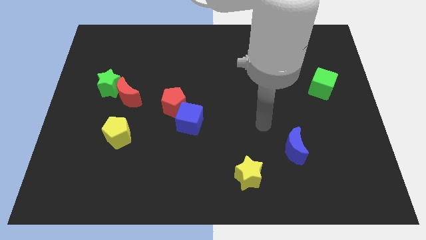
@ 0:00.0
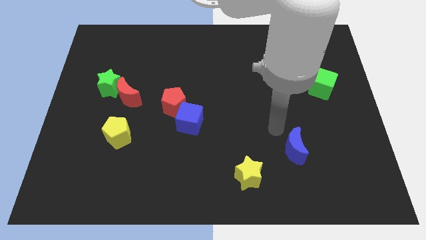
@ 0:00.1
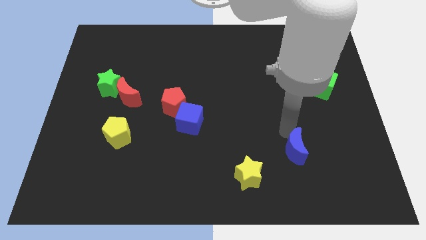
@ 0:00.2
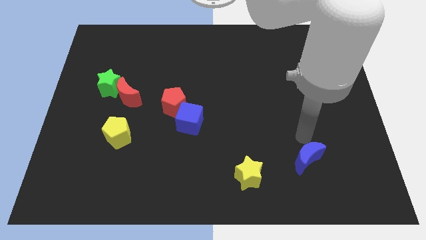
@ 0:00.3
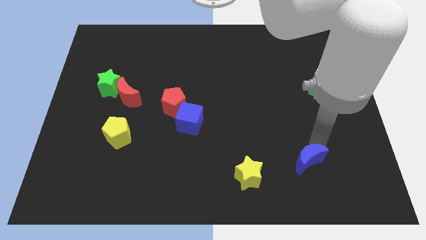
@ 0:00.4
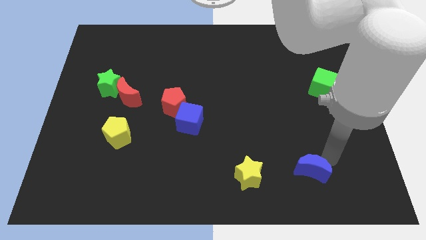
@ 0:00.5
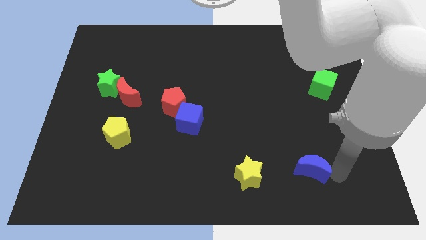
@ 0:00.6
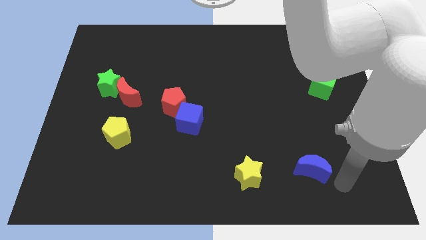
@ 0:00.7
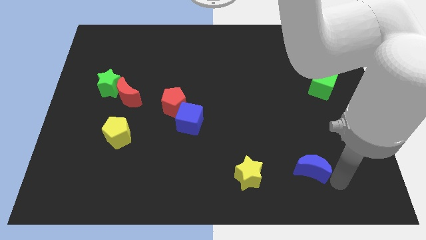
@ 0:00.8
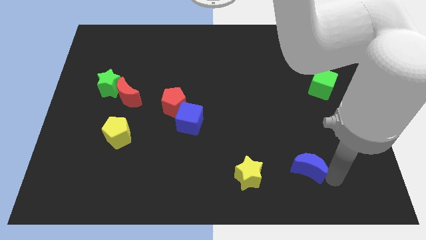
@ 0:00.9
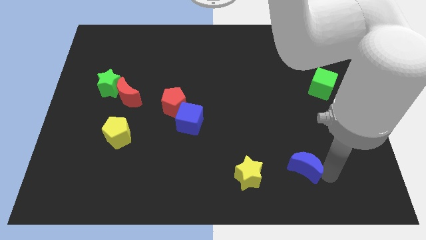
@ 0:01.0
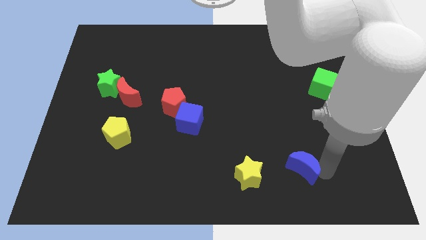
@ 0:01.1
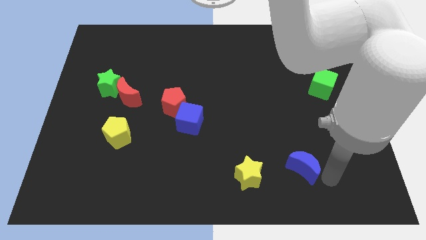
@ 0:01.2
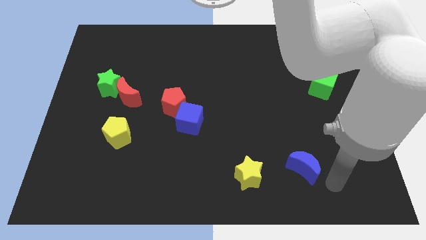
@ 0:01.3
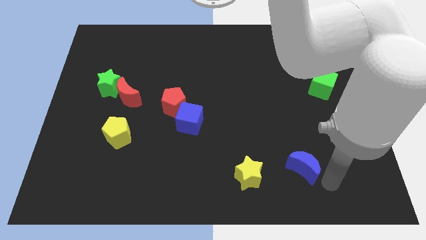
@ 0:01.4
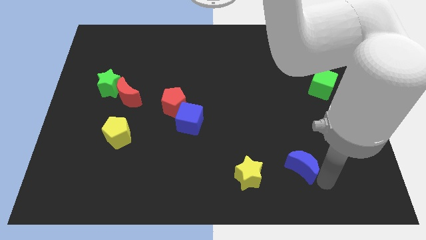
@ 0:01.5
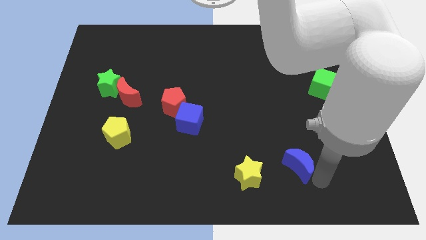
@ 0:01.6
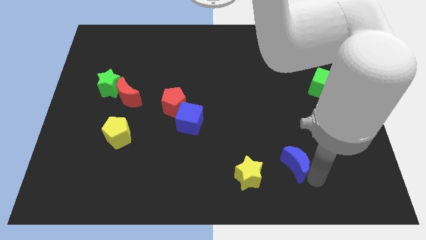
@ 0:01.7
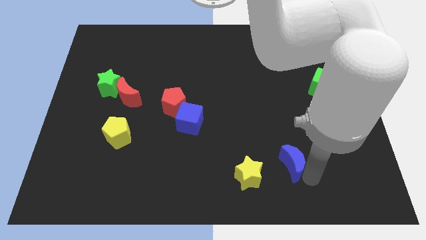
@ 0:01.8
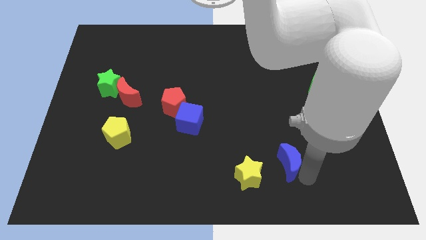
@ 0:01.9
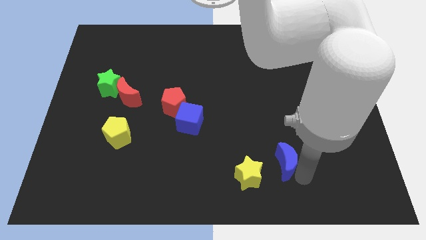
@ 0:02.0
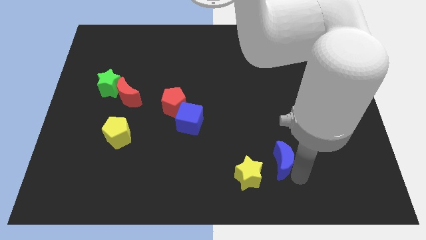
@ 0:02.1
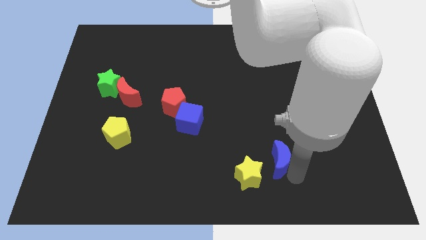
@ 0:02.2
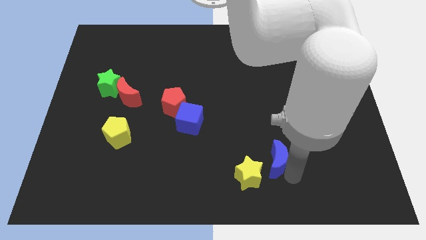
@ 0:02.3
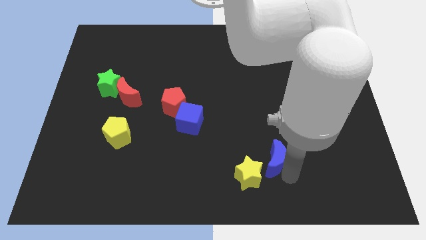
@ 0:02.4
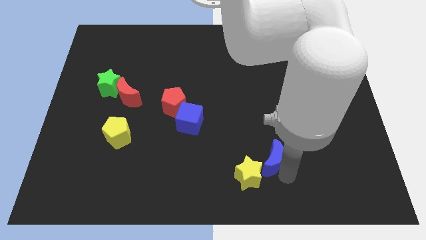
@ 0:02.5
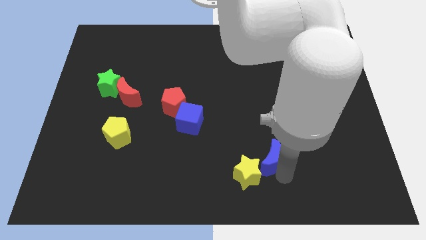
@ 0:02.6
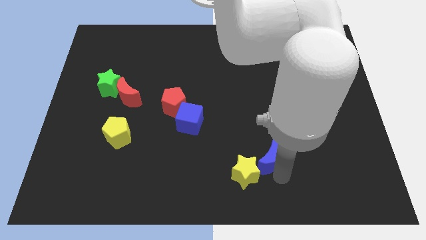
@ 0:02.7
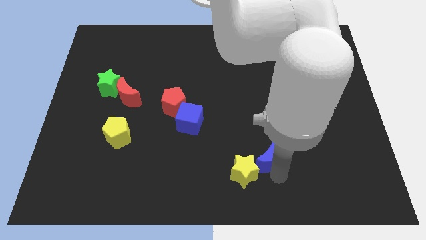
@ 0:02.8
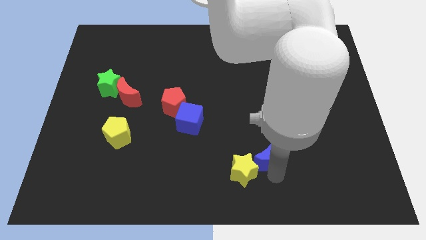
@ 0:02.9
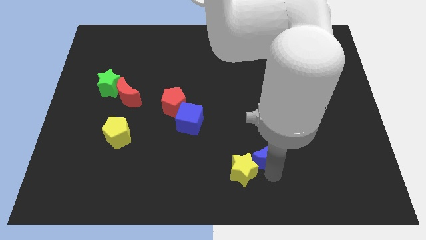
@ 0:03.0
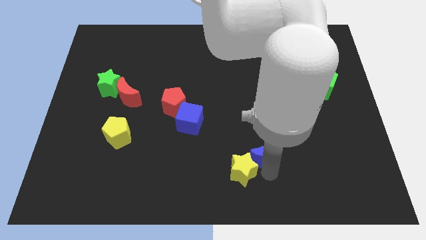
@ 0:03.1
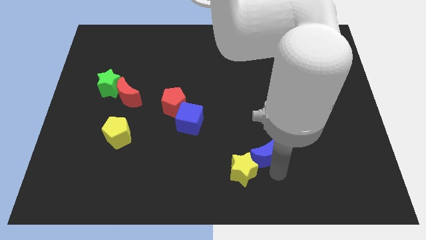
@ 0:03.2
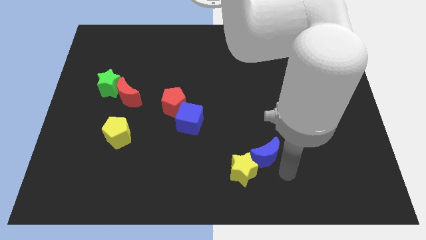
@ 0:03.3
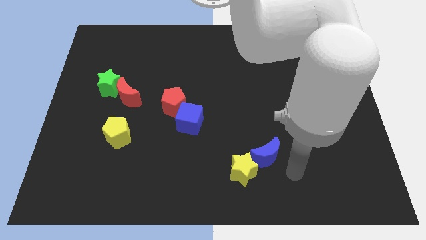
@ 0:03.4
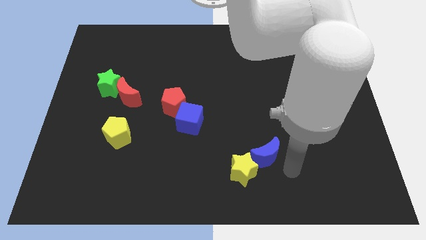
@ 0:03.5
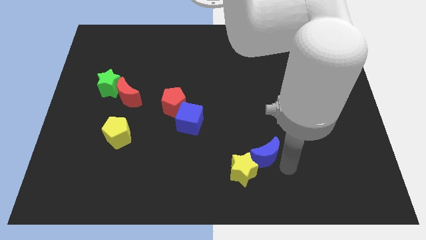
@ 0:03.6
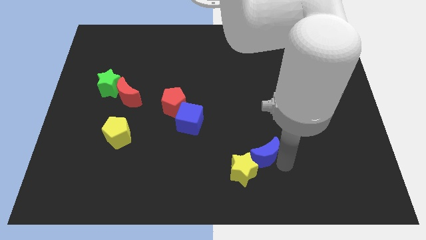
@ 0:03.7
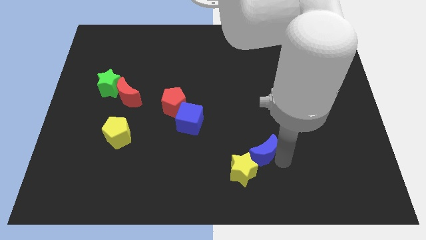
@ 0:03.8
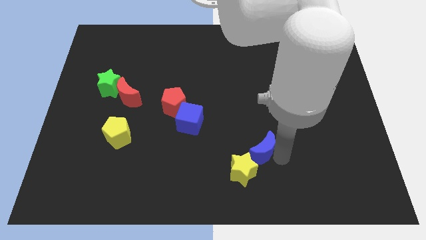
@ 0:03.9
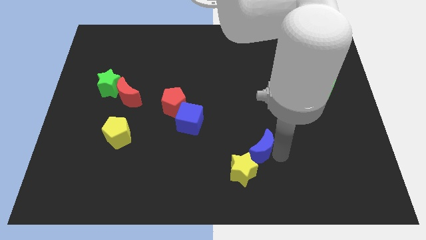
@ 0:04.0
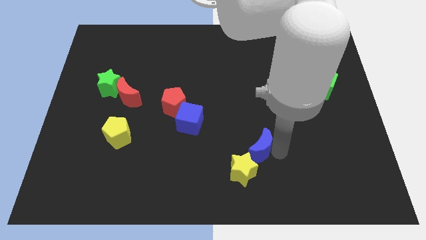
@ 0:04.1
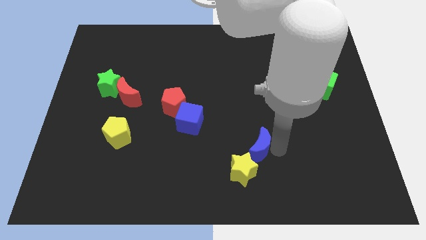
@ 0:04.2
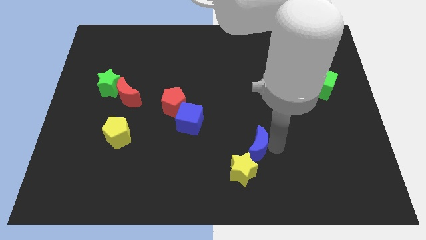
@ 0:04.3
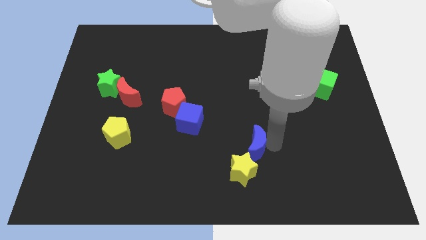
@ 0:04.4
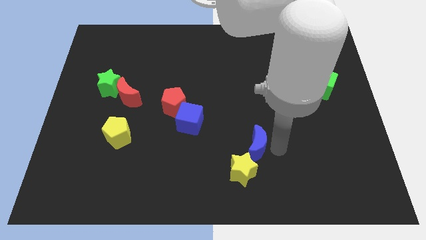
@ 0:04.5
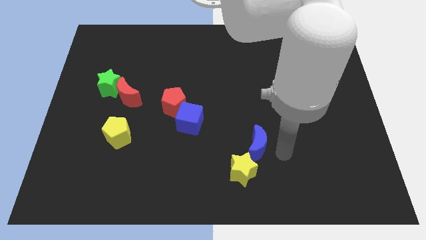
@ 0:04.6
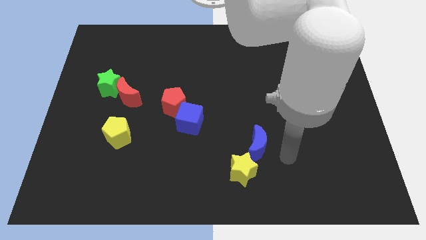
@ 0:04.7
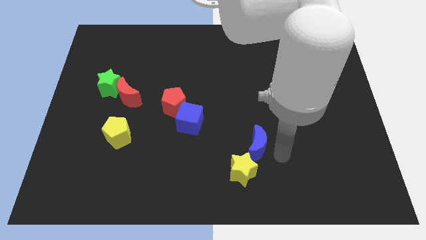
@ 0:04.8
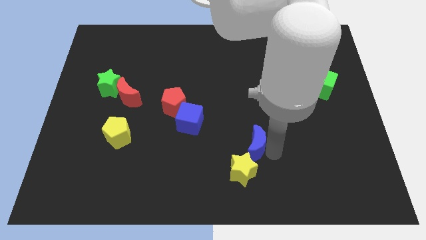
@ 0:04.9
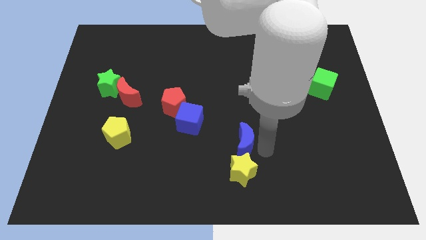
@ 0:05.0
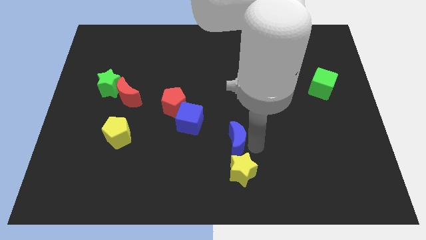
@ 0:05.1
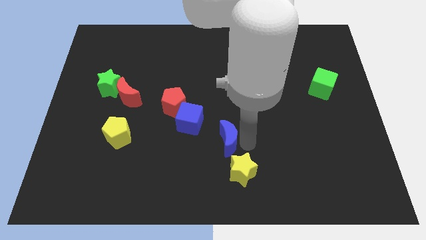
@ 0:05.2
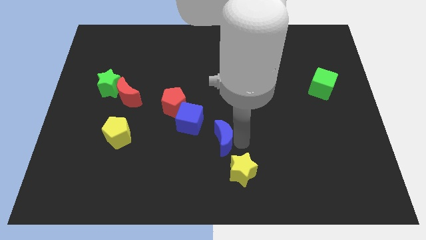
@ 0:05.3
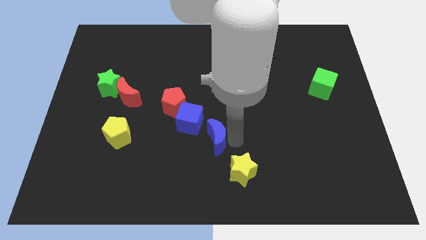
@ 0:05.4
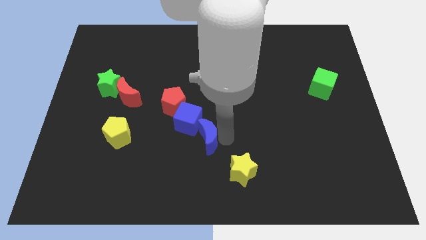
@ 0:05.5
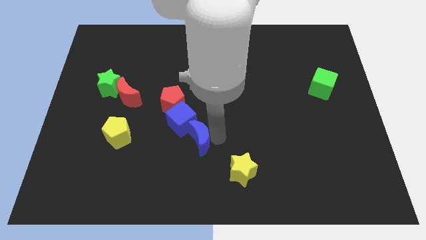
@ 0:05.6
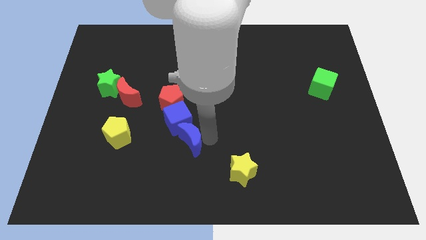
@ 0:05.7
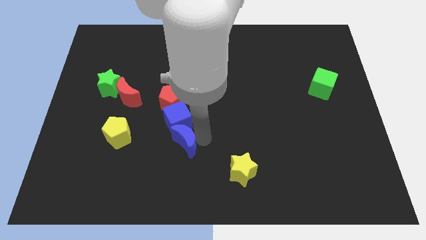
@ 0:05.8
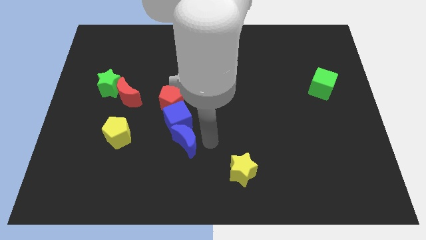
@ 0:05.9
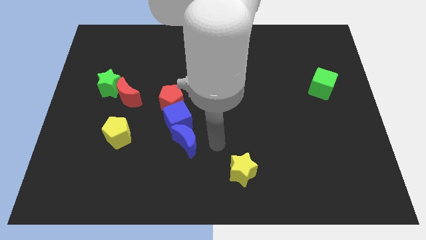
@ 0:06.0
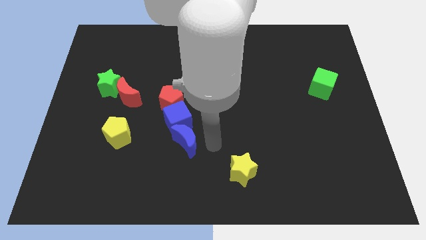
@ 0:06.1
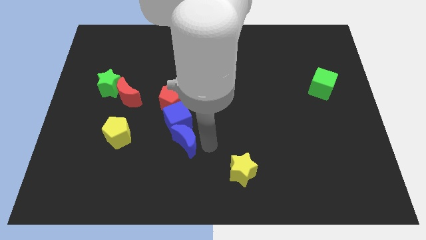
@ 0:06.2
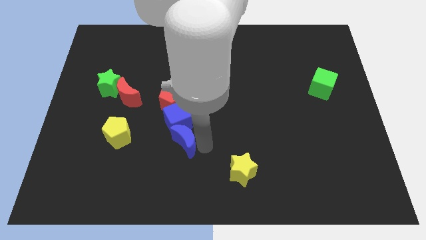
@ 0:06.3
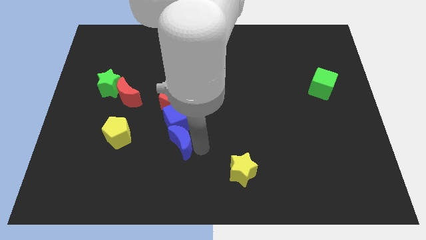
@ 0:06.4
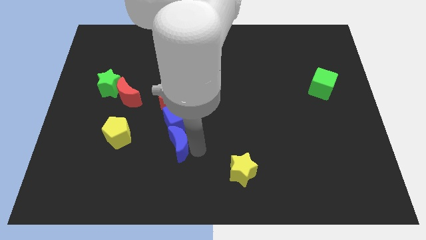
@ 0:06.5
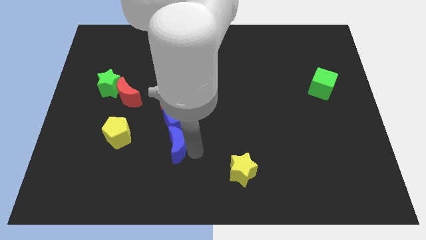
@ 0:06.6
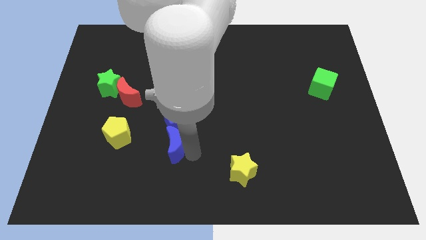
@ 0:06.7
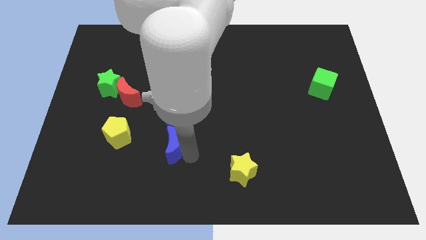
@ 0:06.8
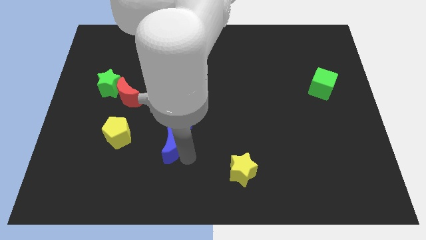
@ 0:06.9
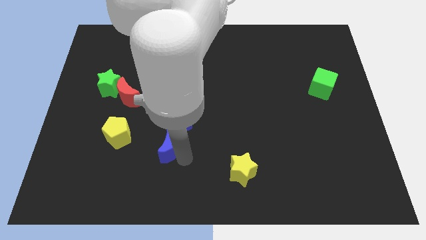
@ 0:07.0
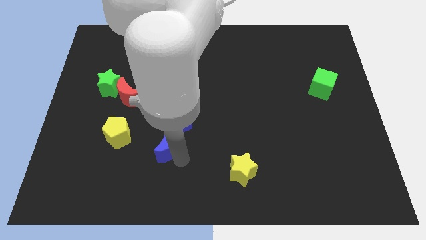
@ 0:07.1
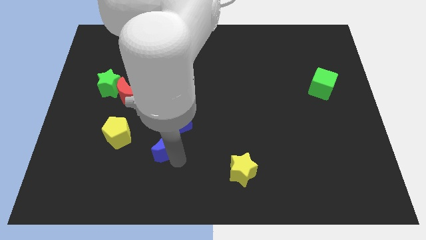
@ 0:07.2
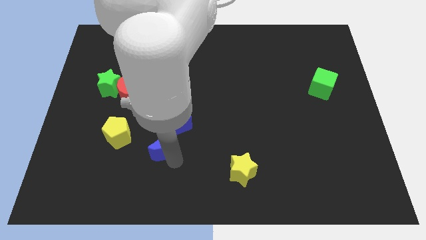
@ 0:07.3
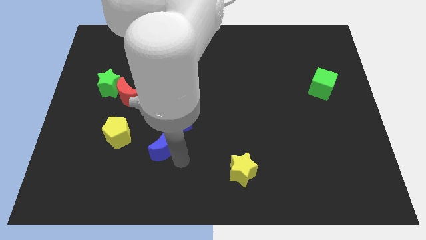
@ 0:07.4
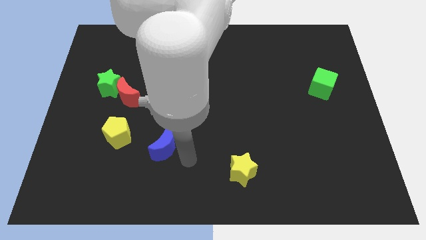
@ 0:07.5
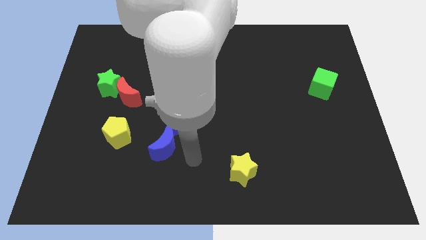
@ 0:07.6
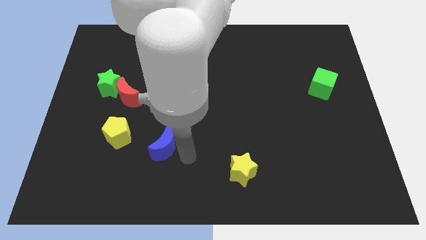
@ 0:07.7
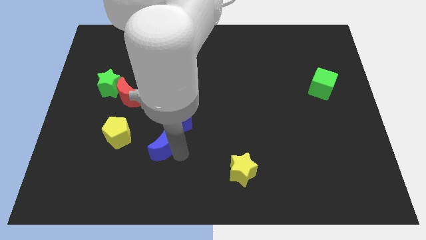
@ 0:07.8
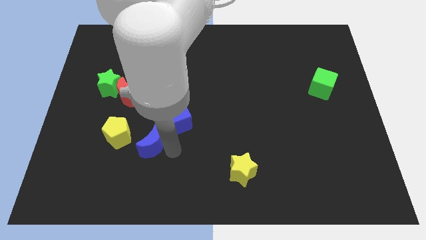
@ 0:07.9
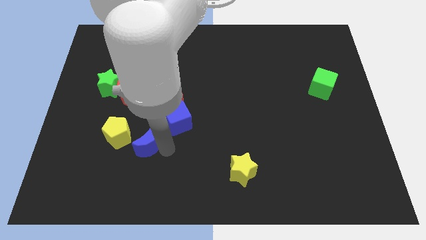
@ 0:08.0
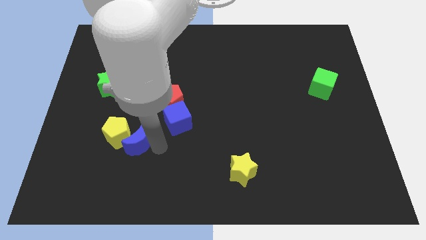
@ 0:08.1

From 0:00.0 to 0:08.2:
put the blue moon next to the yellow pentagon
